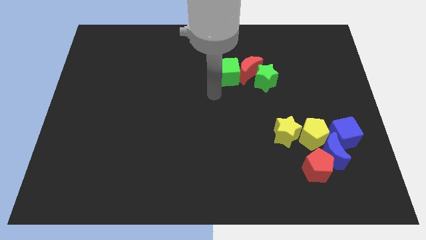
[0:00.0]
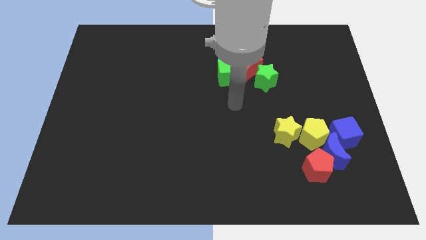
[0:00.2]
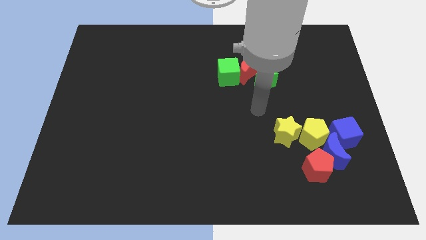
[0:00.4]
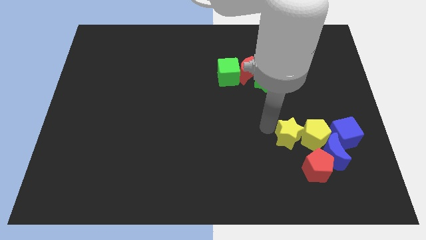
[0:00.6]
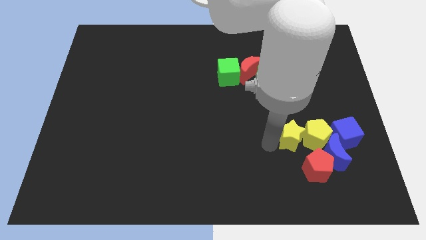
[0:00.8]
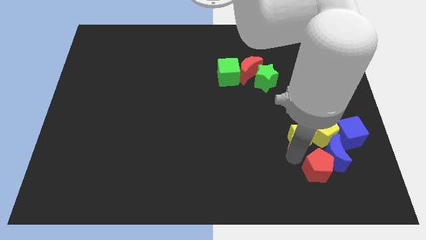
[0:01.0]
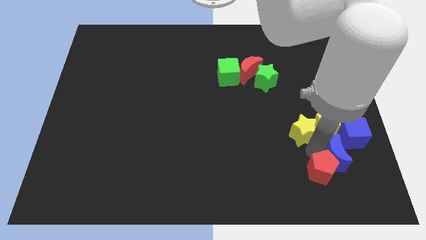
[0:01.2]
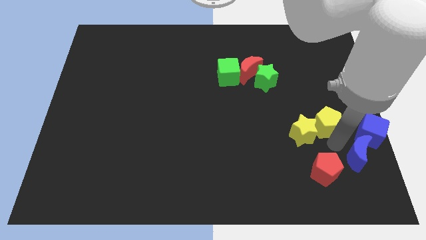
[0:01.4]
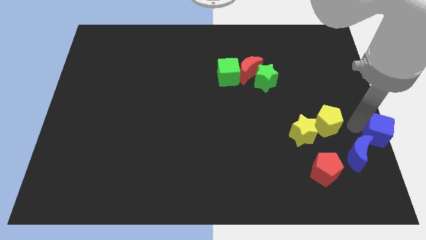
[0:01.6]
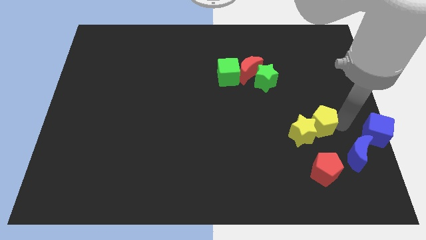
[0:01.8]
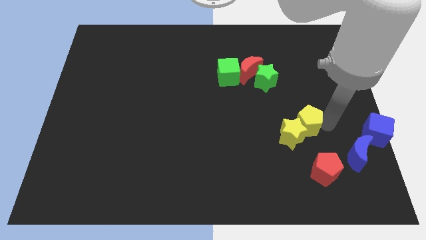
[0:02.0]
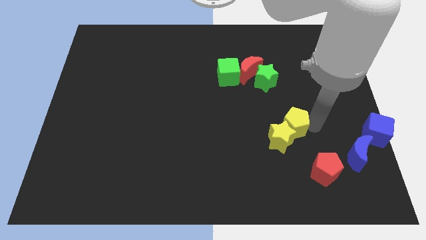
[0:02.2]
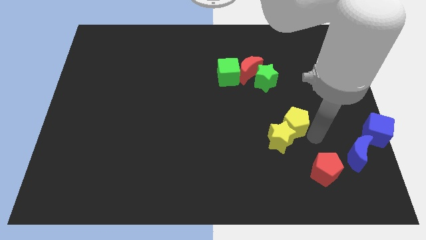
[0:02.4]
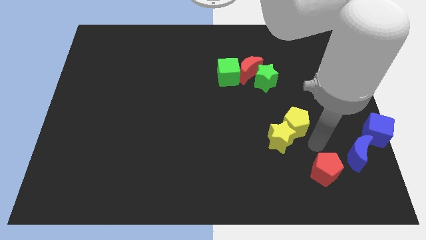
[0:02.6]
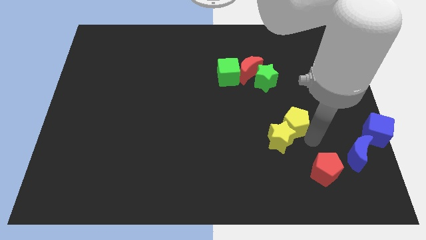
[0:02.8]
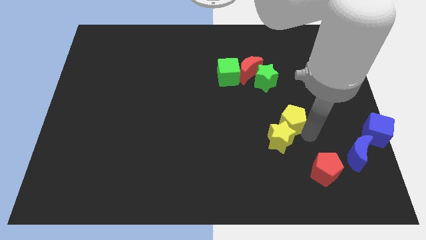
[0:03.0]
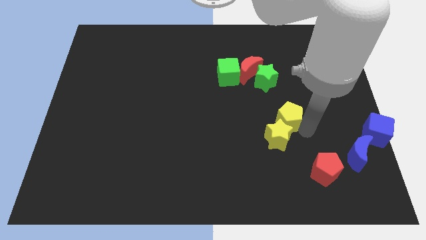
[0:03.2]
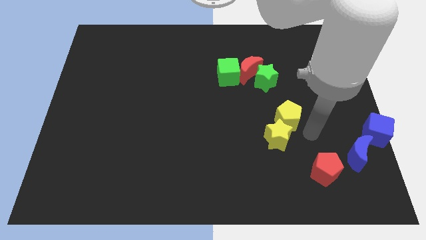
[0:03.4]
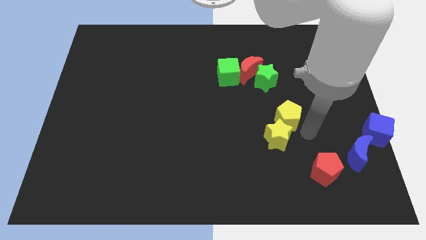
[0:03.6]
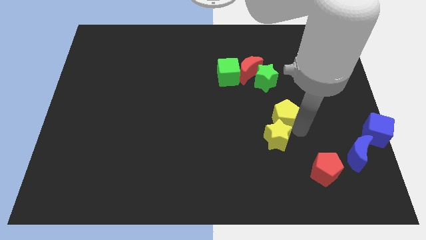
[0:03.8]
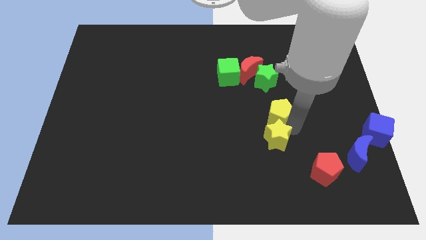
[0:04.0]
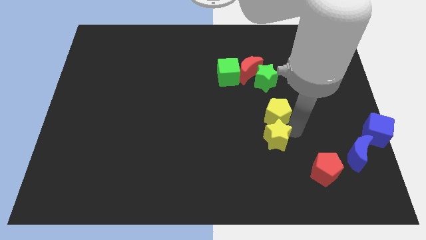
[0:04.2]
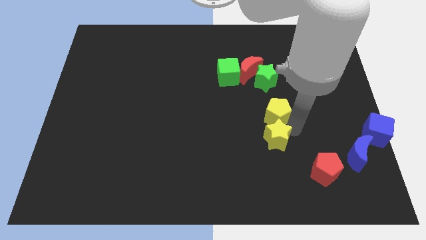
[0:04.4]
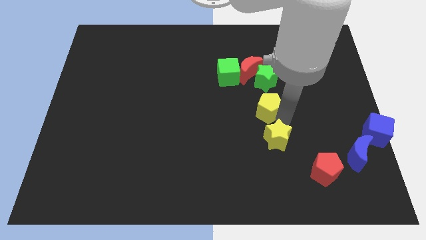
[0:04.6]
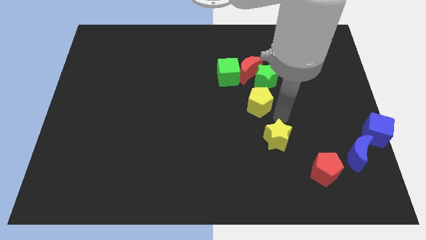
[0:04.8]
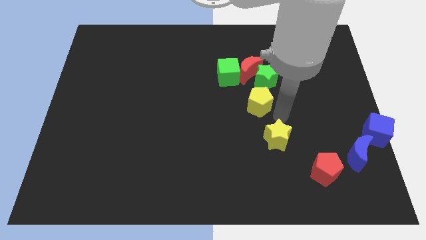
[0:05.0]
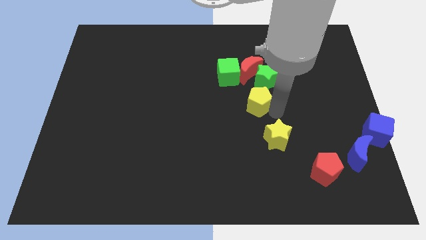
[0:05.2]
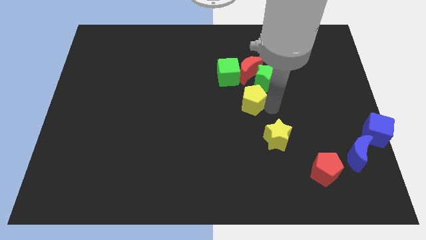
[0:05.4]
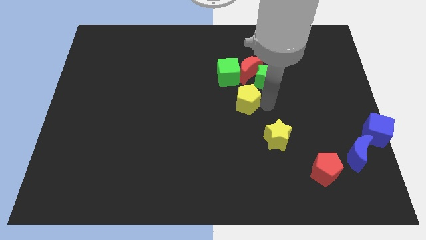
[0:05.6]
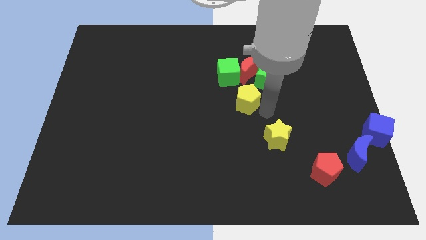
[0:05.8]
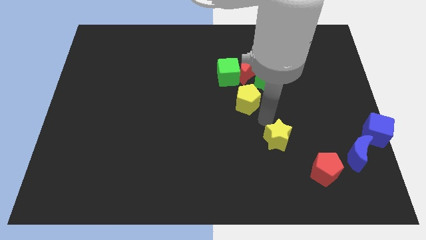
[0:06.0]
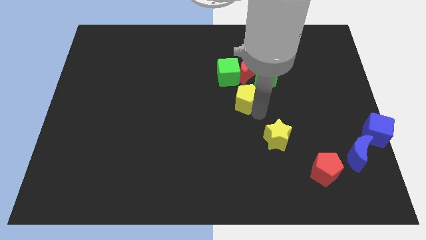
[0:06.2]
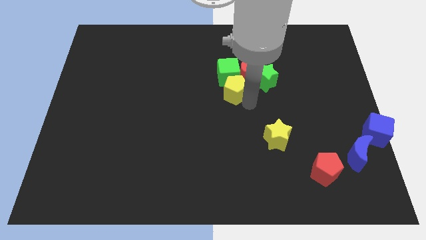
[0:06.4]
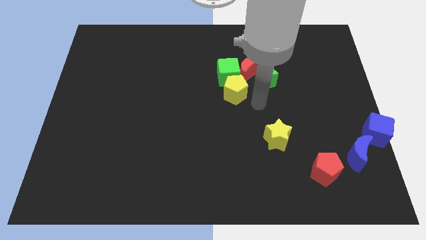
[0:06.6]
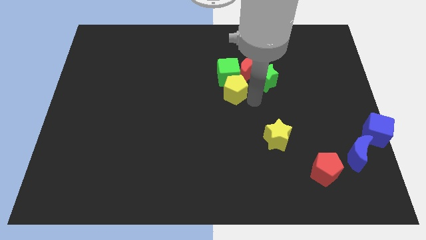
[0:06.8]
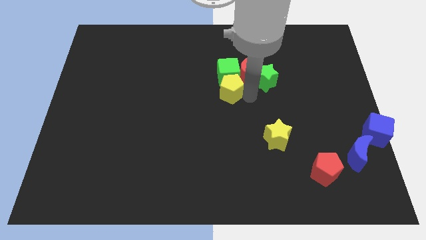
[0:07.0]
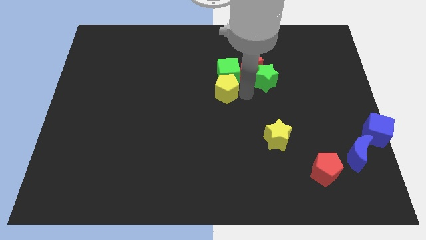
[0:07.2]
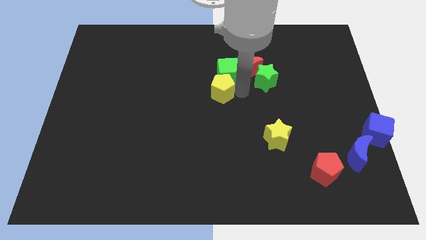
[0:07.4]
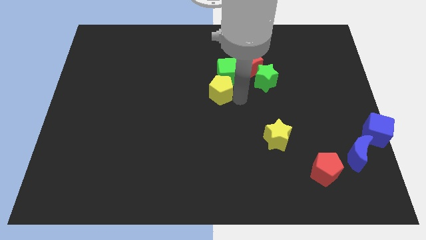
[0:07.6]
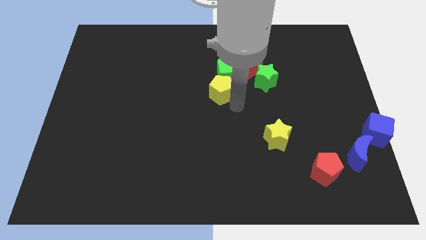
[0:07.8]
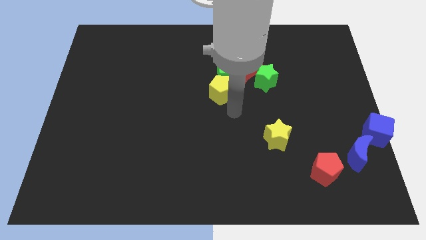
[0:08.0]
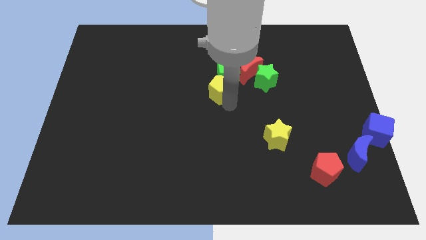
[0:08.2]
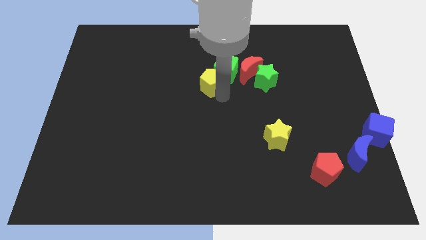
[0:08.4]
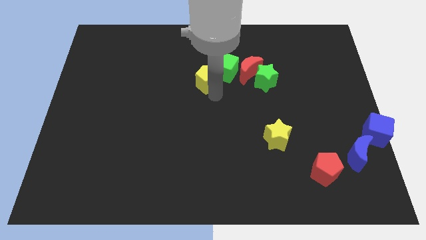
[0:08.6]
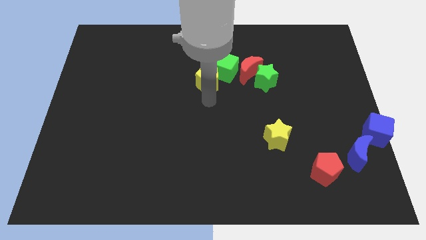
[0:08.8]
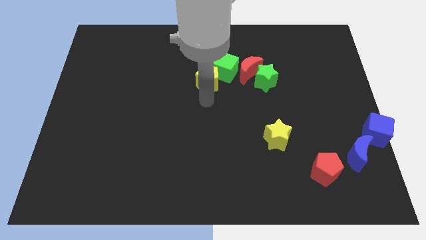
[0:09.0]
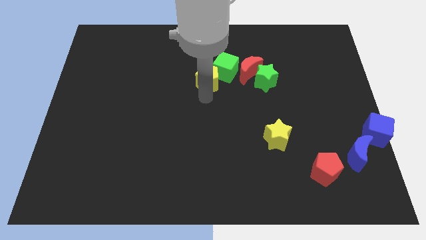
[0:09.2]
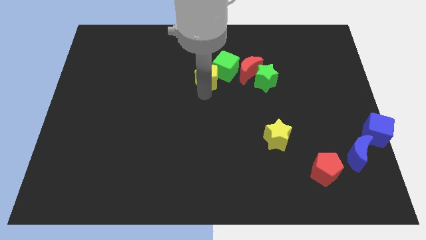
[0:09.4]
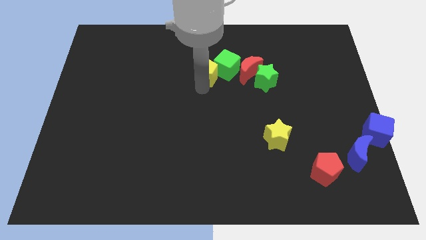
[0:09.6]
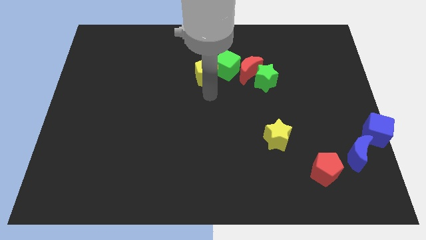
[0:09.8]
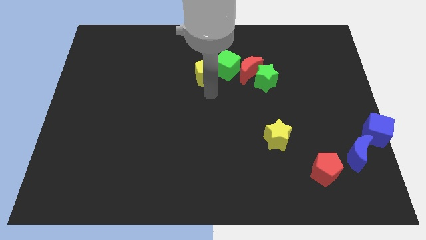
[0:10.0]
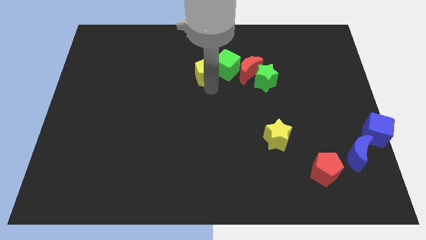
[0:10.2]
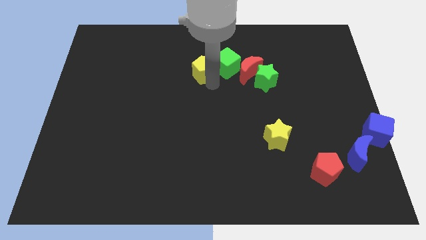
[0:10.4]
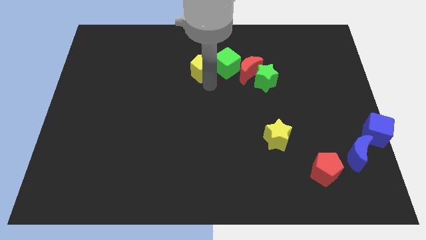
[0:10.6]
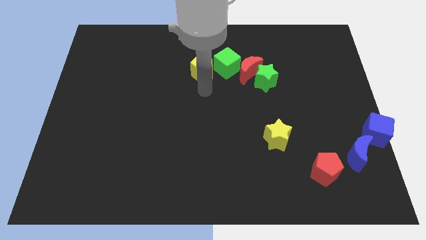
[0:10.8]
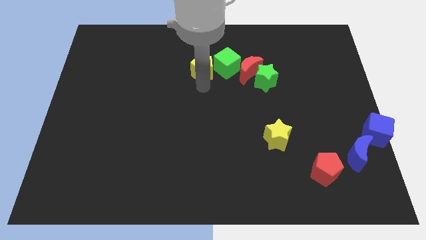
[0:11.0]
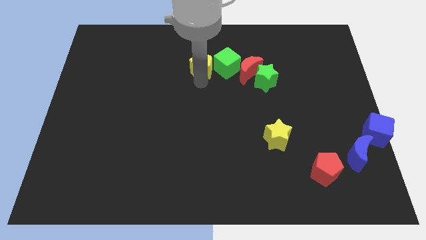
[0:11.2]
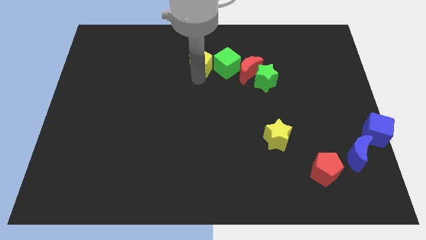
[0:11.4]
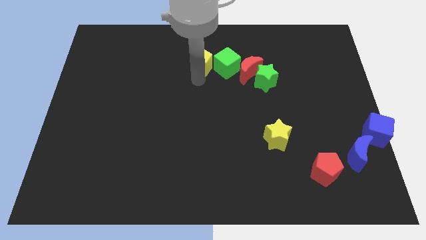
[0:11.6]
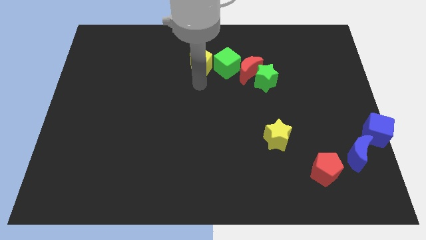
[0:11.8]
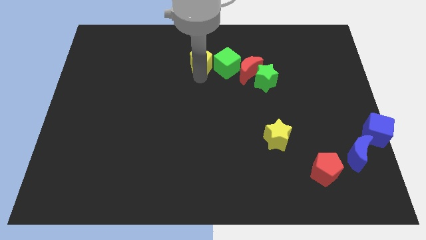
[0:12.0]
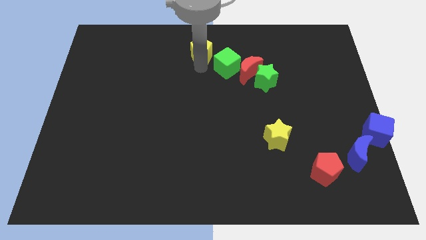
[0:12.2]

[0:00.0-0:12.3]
move the yellow pentagon to the top side

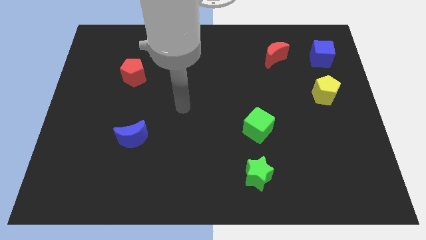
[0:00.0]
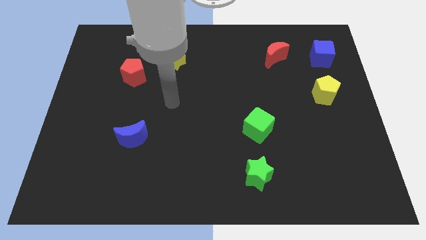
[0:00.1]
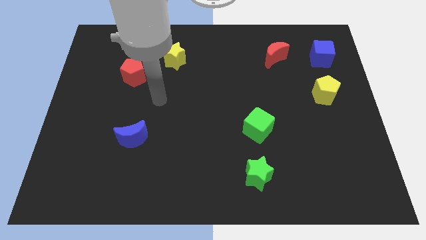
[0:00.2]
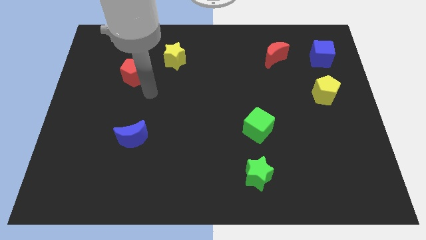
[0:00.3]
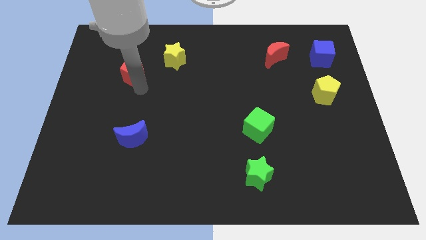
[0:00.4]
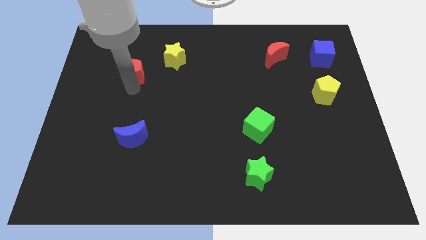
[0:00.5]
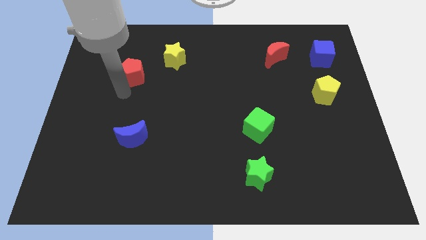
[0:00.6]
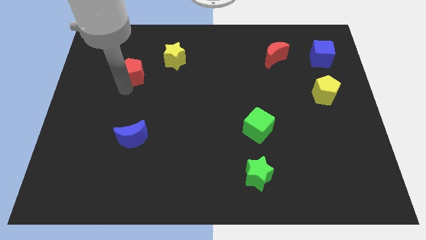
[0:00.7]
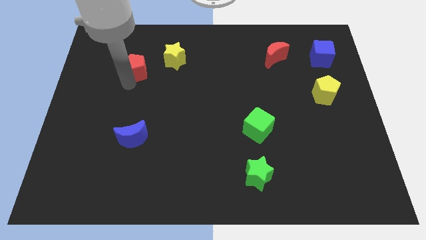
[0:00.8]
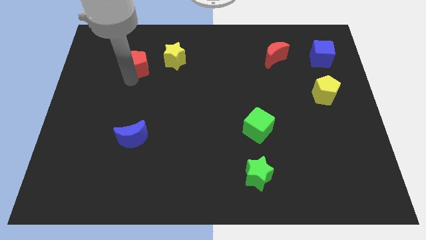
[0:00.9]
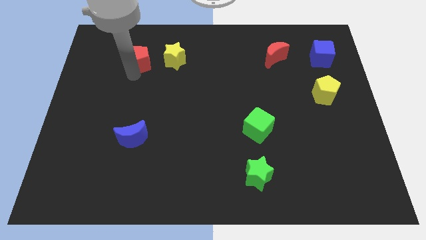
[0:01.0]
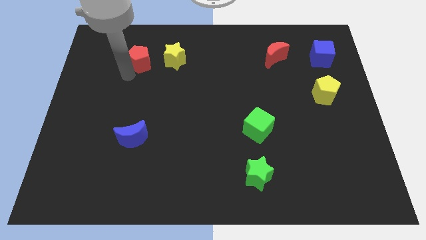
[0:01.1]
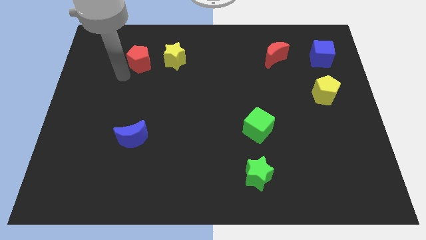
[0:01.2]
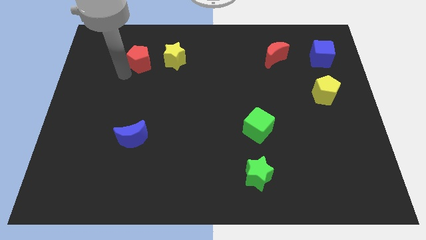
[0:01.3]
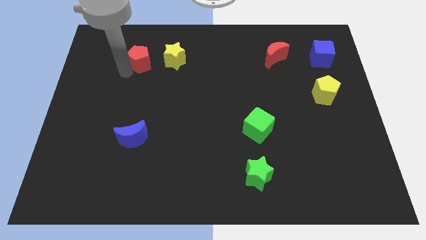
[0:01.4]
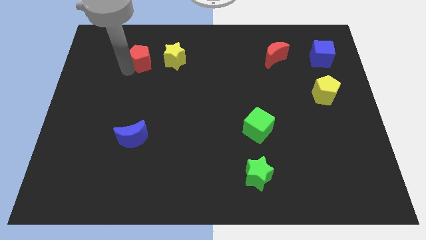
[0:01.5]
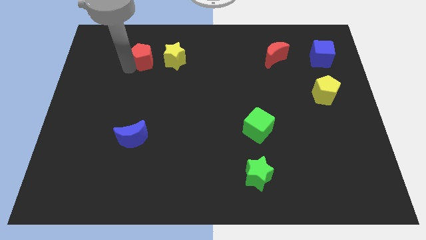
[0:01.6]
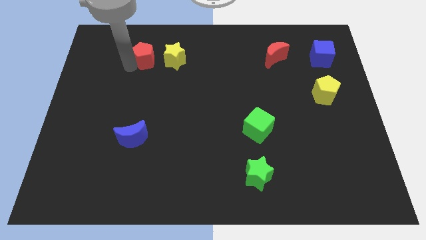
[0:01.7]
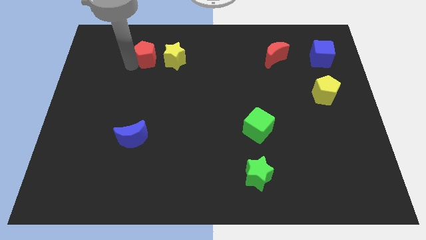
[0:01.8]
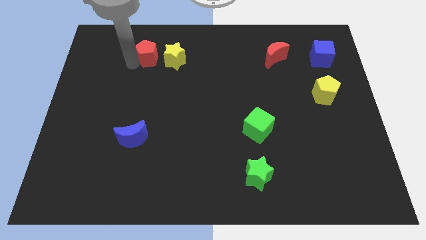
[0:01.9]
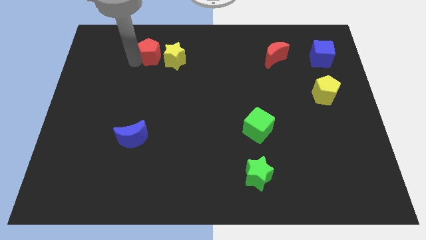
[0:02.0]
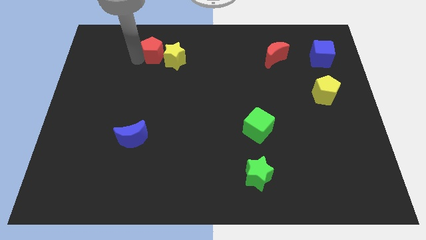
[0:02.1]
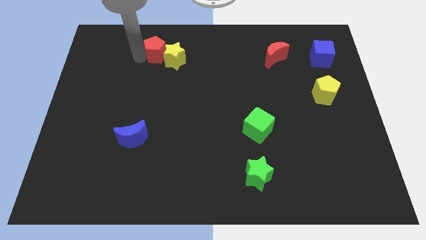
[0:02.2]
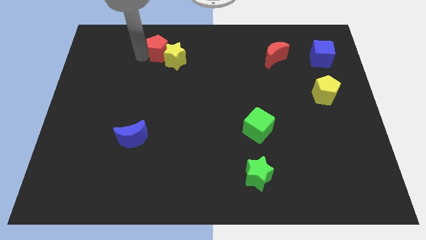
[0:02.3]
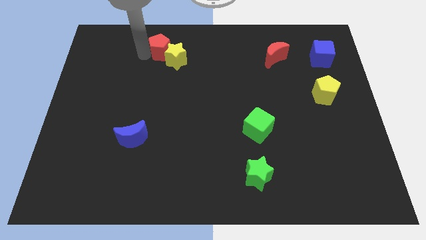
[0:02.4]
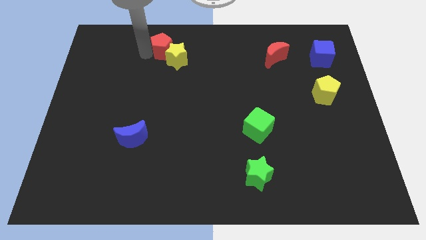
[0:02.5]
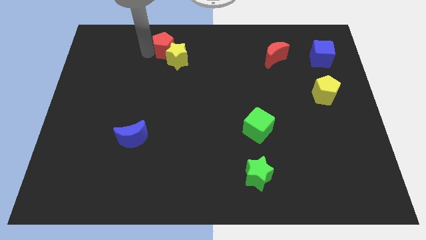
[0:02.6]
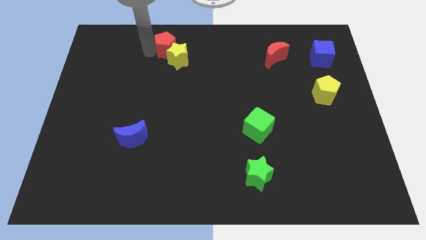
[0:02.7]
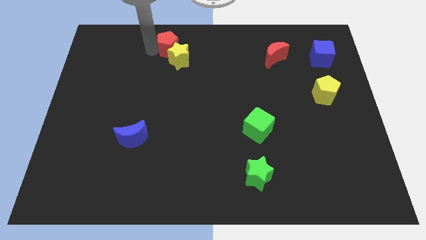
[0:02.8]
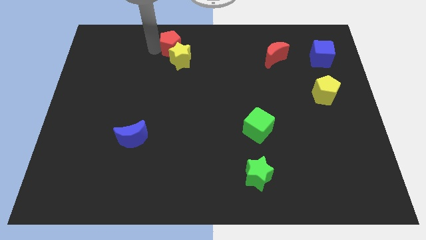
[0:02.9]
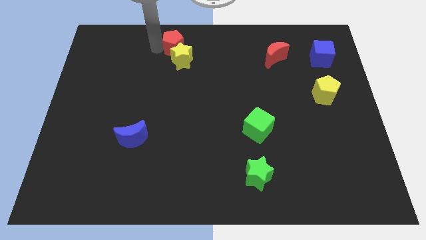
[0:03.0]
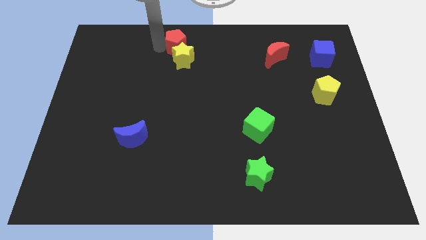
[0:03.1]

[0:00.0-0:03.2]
slide the red pentagon to the towards your base
